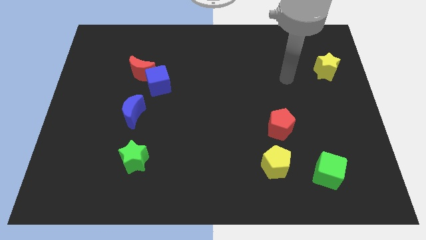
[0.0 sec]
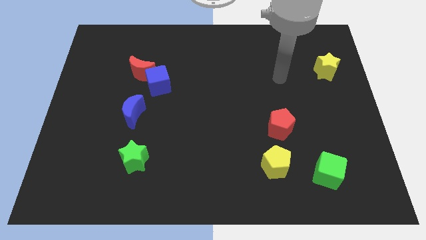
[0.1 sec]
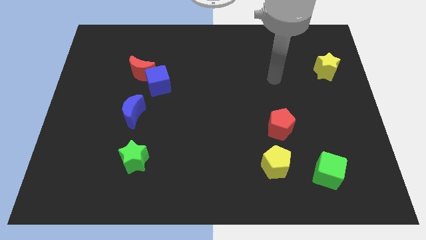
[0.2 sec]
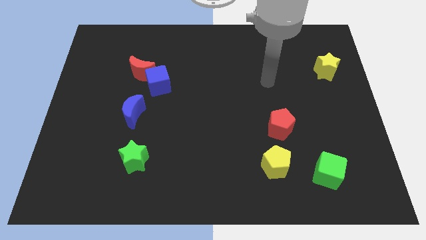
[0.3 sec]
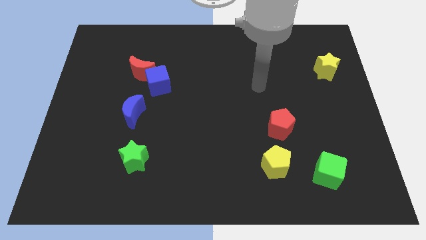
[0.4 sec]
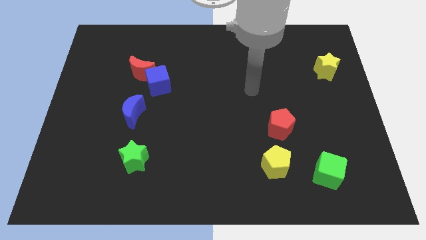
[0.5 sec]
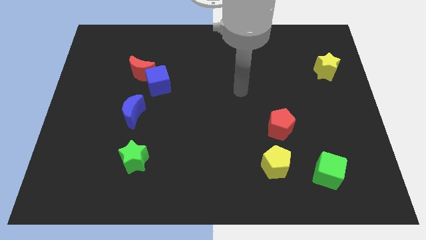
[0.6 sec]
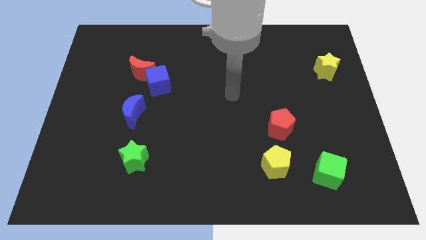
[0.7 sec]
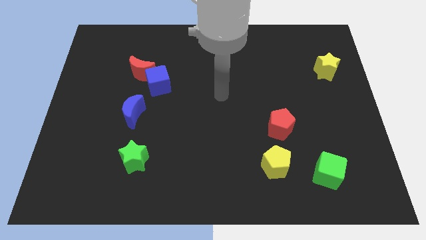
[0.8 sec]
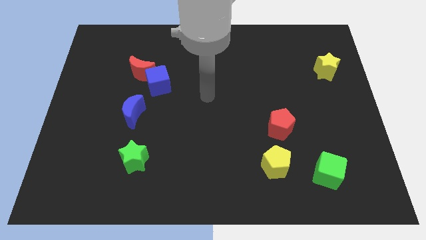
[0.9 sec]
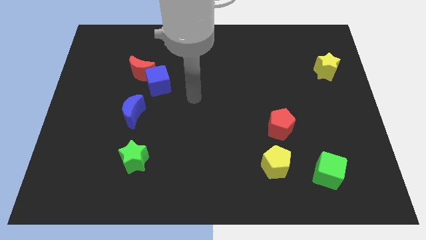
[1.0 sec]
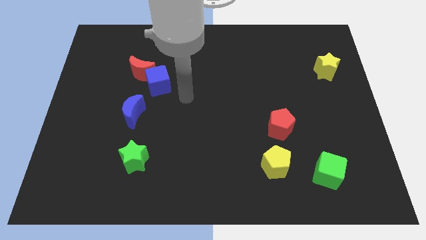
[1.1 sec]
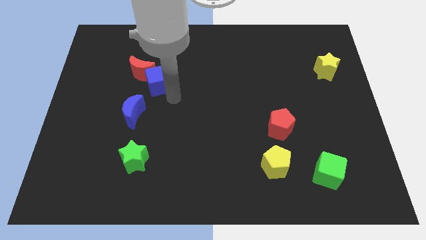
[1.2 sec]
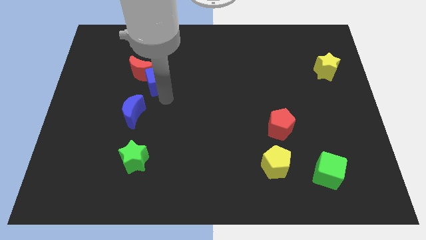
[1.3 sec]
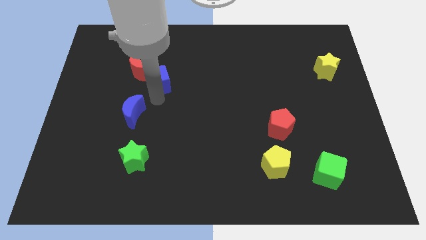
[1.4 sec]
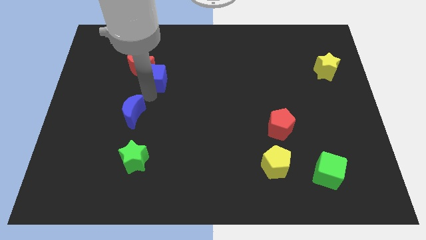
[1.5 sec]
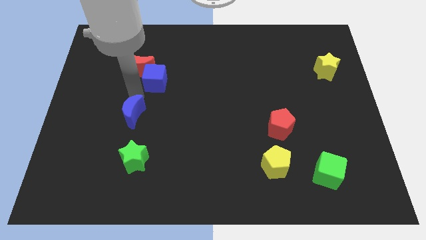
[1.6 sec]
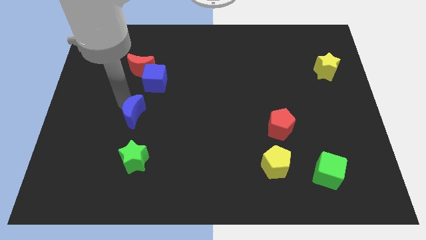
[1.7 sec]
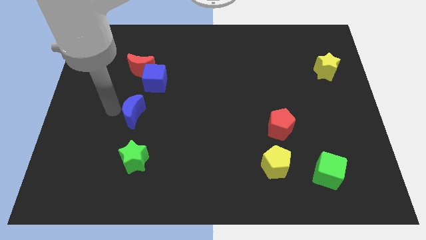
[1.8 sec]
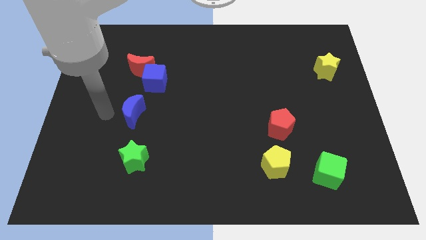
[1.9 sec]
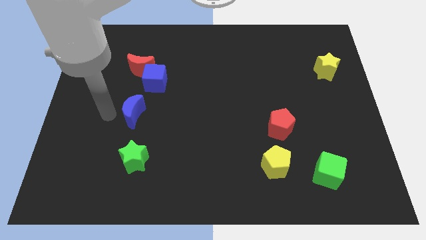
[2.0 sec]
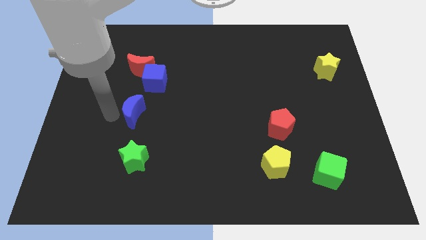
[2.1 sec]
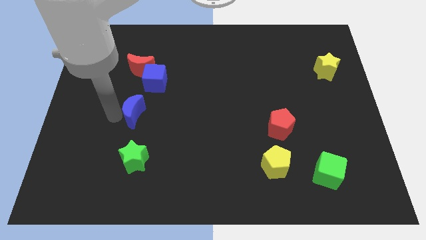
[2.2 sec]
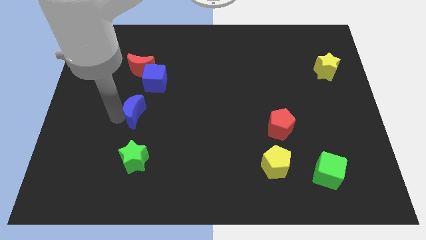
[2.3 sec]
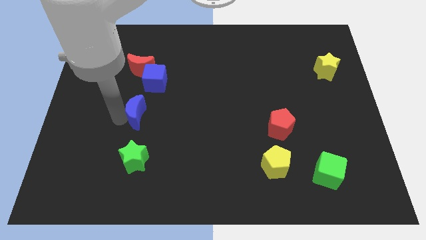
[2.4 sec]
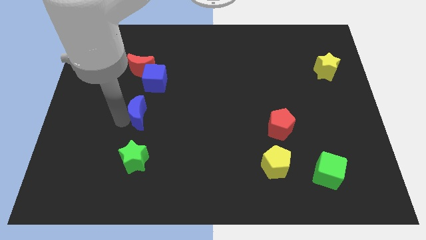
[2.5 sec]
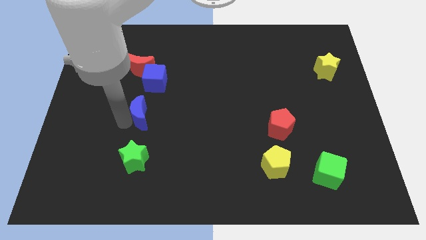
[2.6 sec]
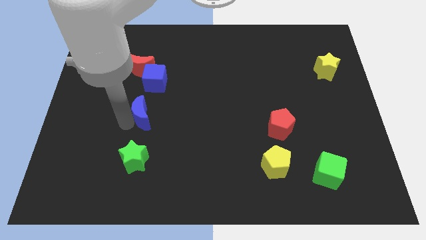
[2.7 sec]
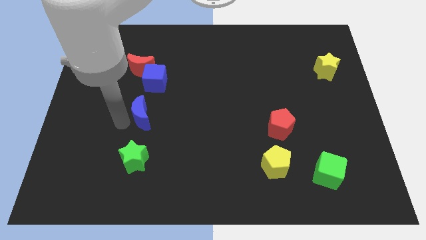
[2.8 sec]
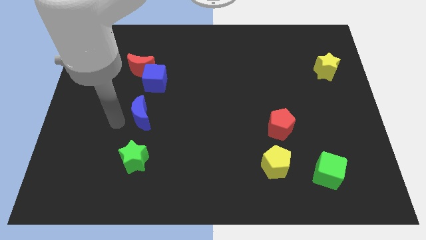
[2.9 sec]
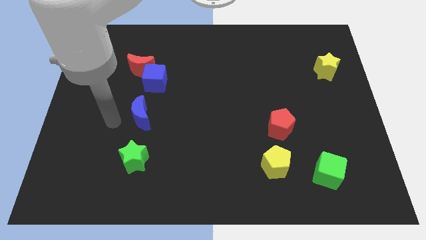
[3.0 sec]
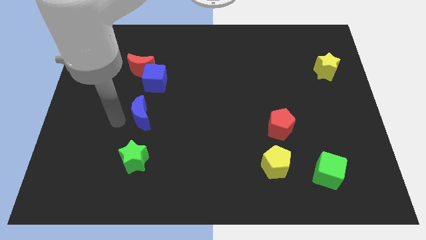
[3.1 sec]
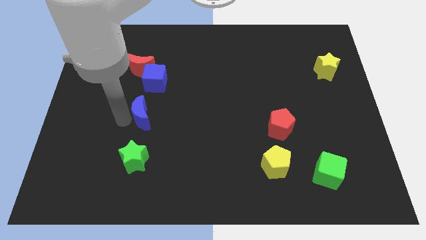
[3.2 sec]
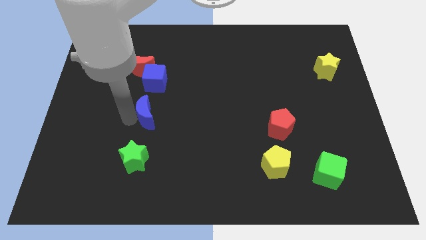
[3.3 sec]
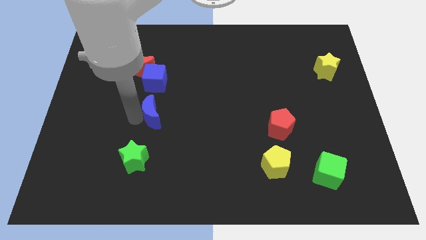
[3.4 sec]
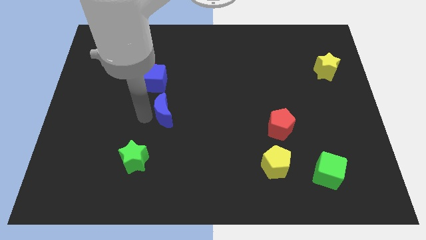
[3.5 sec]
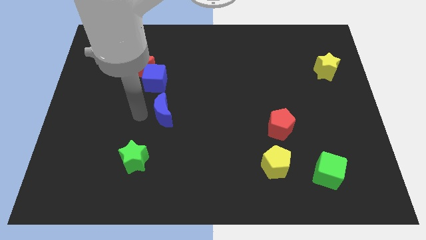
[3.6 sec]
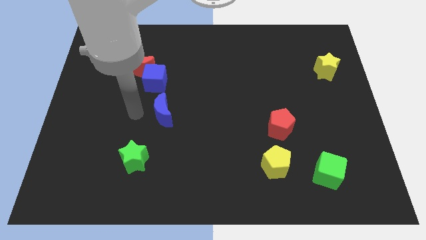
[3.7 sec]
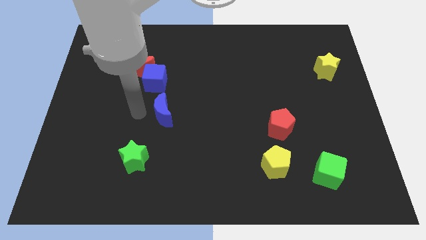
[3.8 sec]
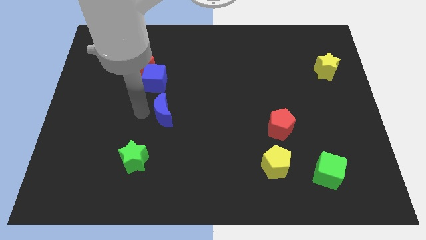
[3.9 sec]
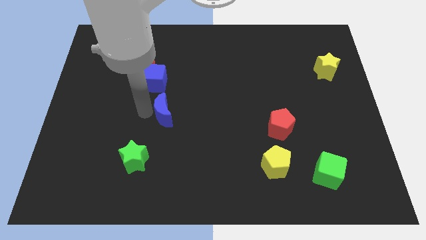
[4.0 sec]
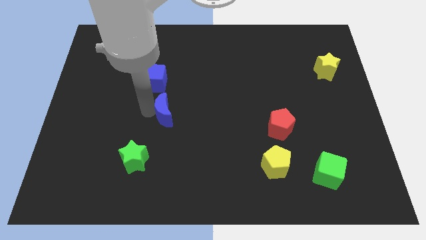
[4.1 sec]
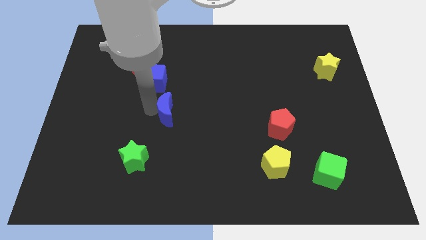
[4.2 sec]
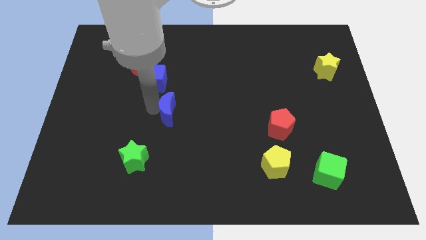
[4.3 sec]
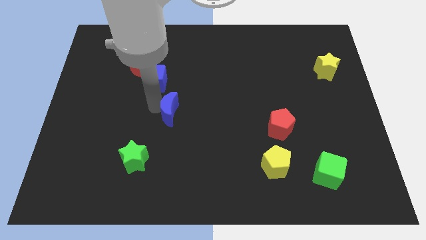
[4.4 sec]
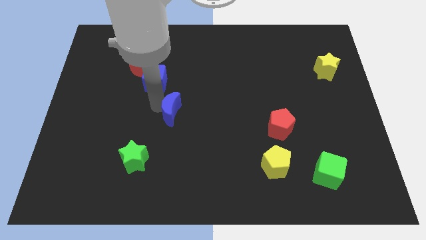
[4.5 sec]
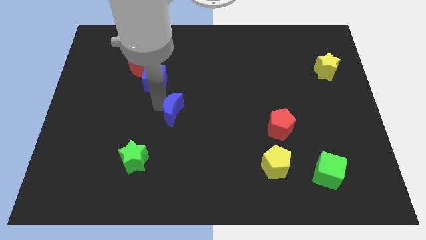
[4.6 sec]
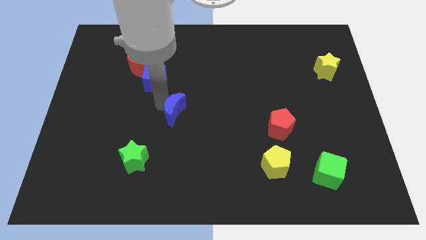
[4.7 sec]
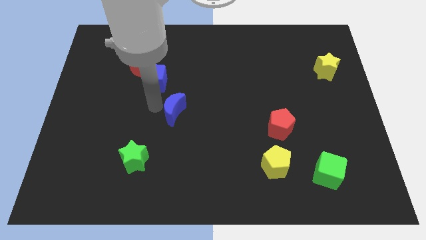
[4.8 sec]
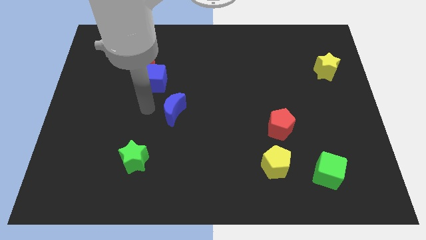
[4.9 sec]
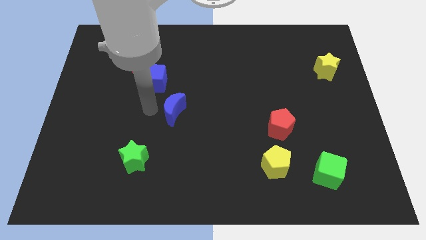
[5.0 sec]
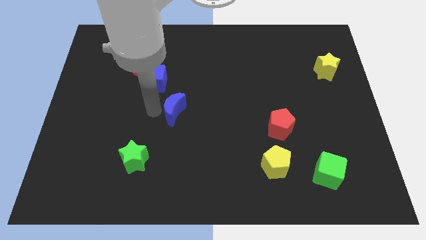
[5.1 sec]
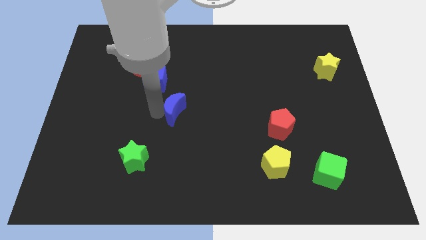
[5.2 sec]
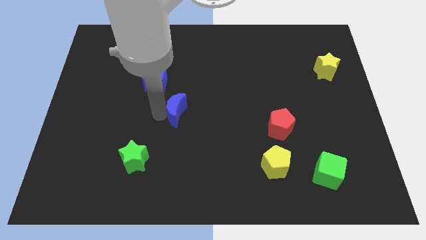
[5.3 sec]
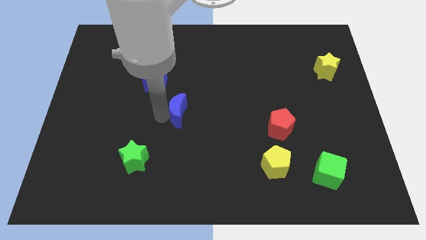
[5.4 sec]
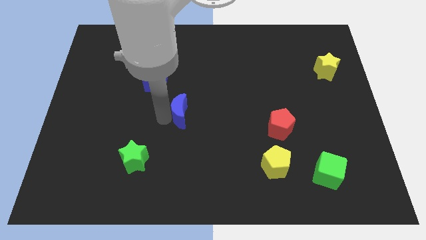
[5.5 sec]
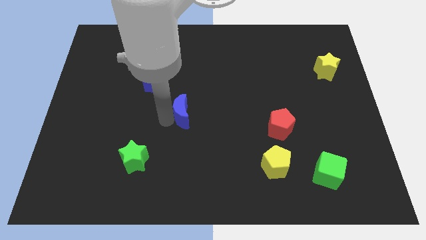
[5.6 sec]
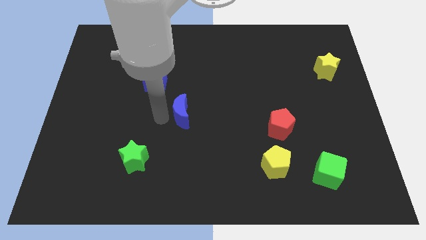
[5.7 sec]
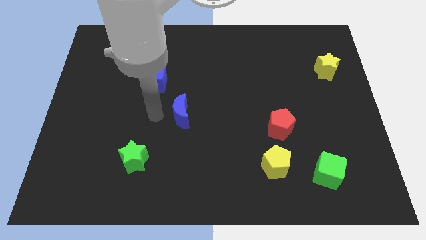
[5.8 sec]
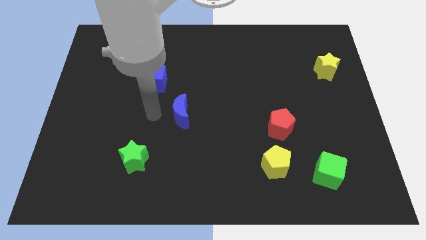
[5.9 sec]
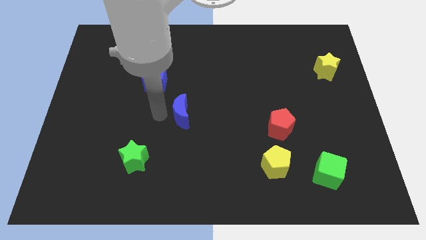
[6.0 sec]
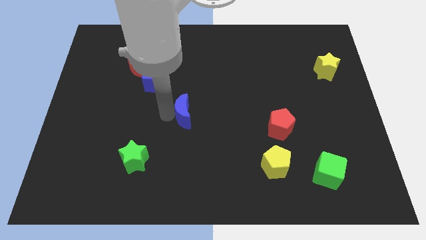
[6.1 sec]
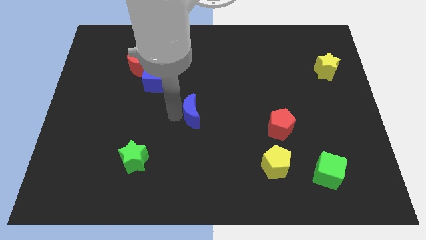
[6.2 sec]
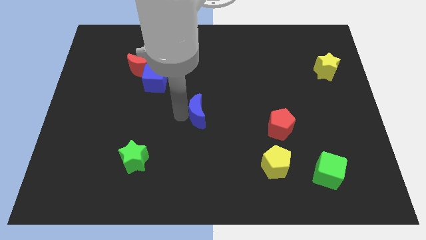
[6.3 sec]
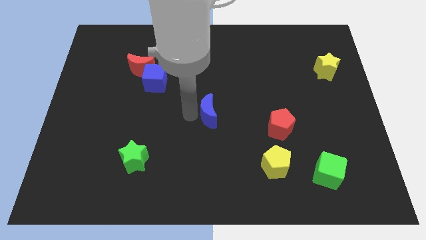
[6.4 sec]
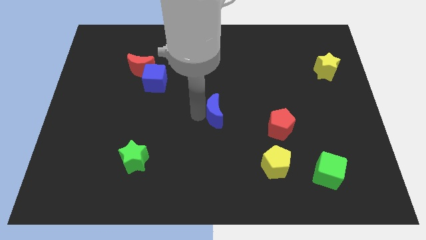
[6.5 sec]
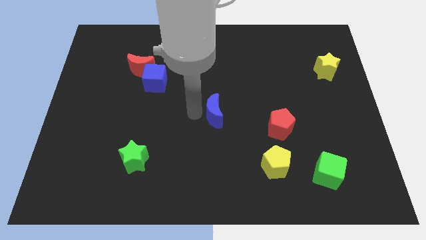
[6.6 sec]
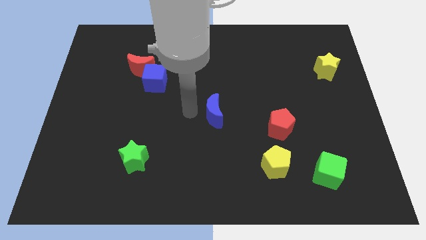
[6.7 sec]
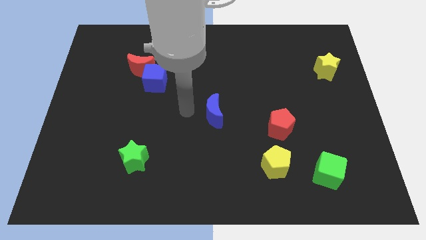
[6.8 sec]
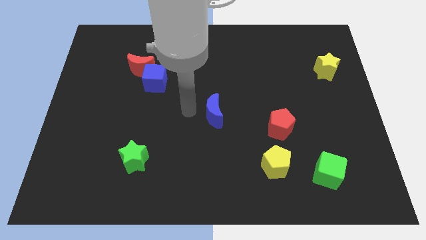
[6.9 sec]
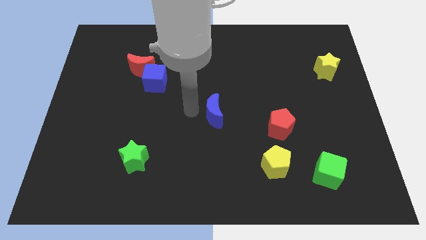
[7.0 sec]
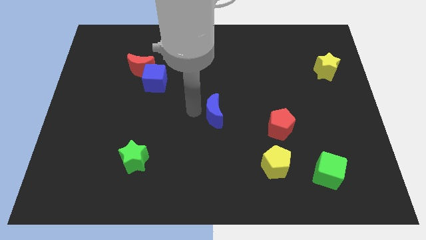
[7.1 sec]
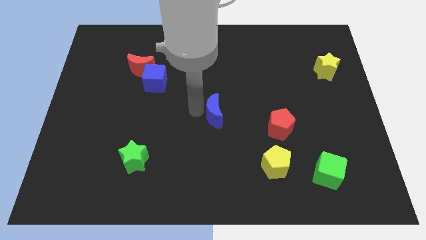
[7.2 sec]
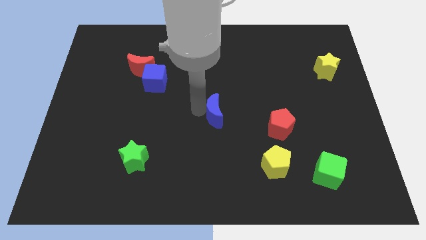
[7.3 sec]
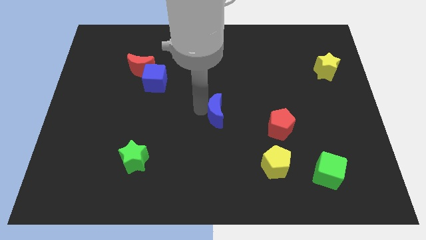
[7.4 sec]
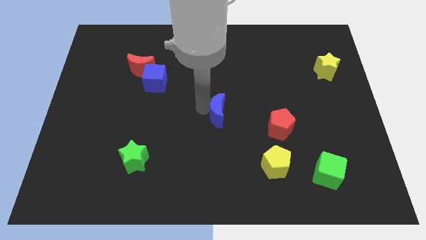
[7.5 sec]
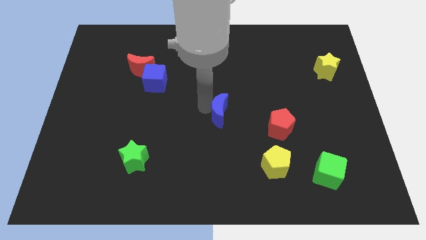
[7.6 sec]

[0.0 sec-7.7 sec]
slide the blue moon to the right
